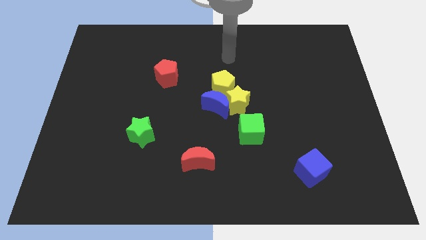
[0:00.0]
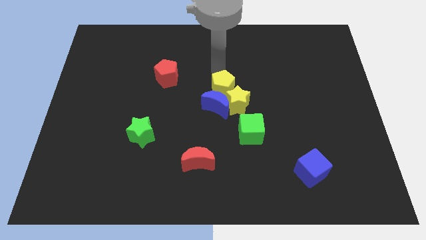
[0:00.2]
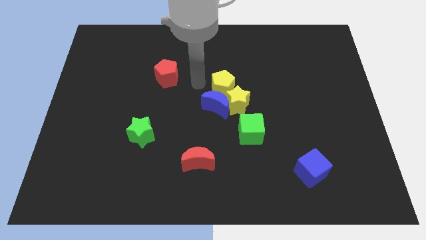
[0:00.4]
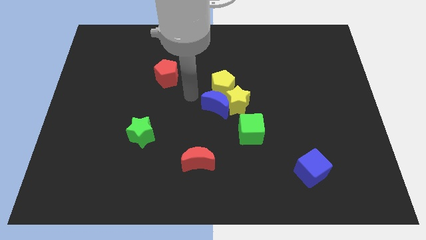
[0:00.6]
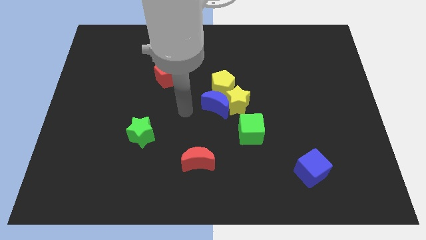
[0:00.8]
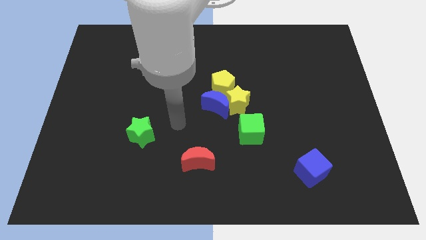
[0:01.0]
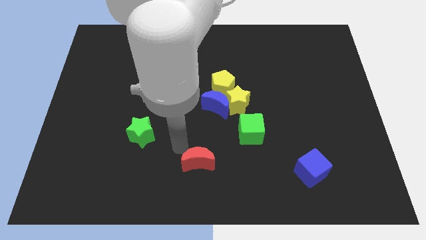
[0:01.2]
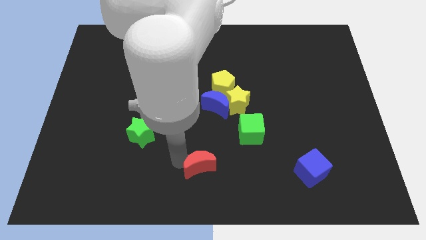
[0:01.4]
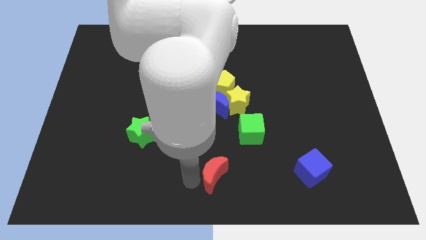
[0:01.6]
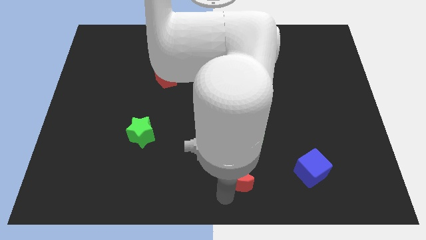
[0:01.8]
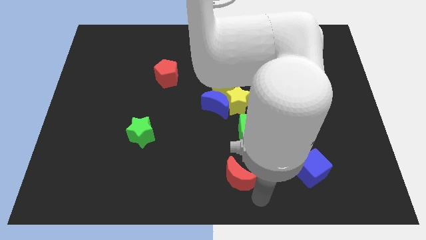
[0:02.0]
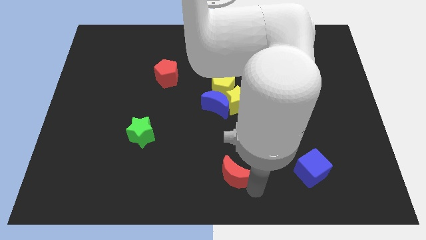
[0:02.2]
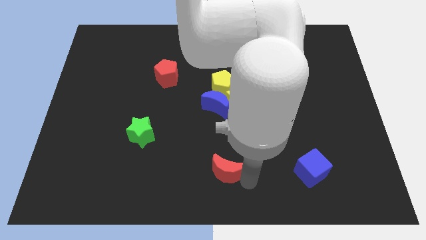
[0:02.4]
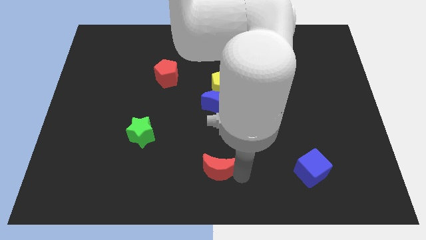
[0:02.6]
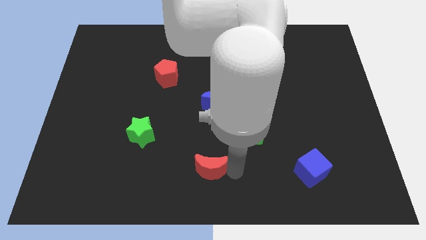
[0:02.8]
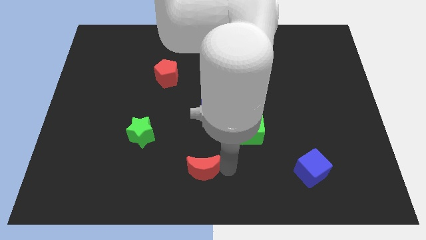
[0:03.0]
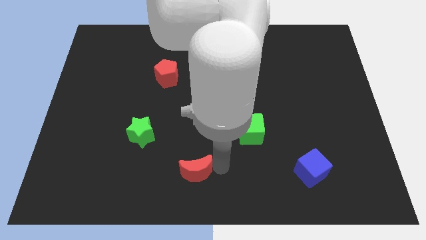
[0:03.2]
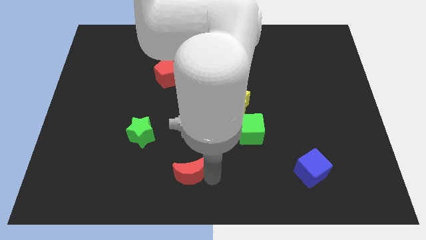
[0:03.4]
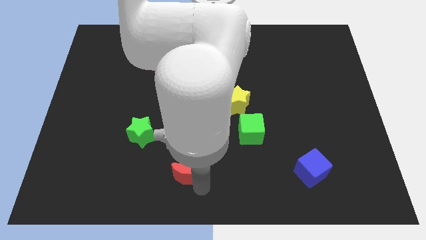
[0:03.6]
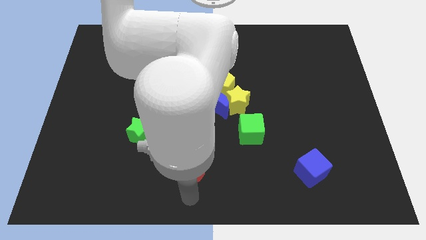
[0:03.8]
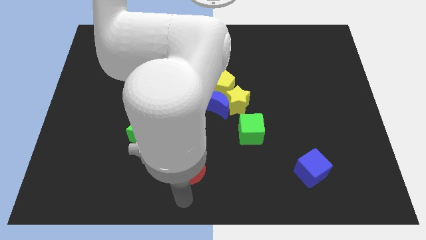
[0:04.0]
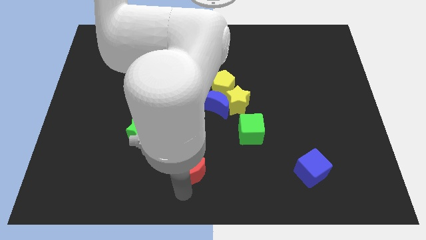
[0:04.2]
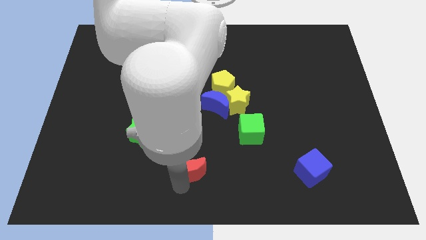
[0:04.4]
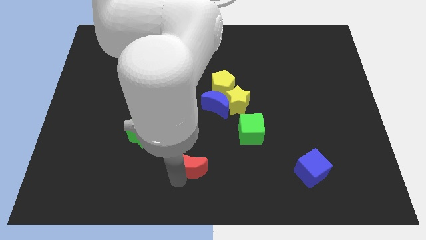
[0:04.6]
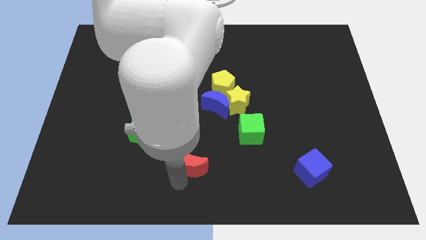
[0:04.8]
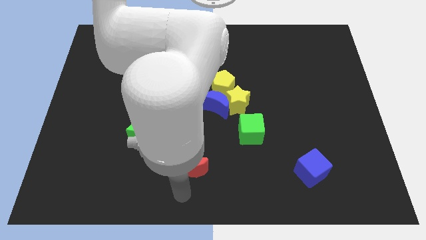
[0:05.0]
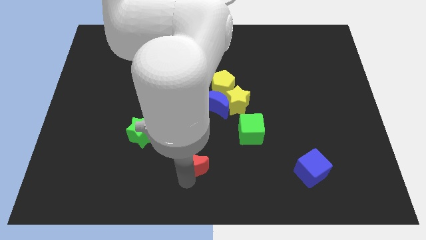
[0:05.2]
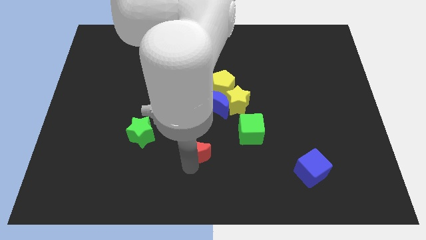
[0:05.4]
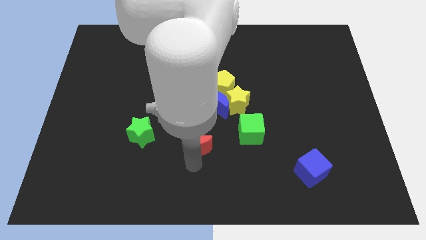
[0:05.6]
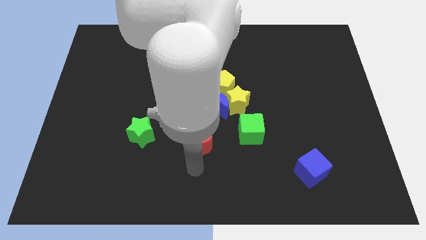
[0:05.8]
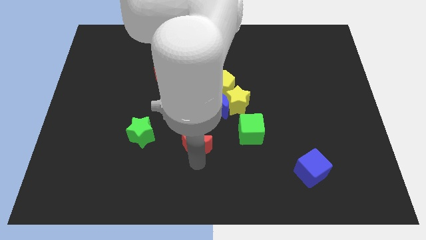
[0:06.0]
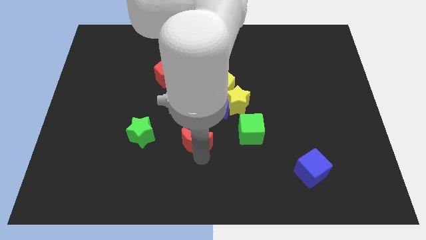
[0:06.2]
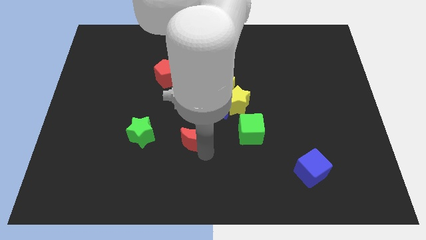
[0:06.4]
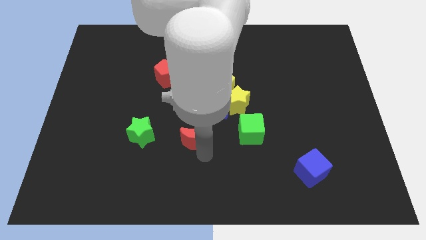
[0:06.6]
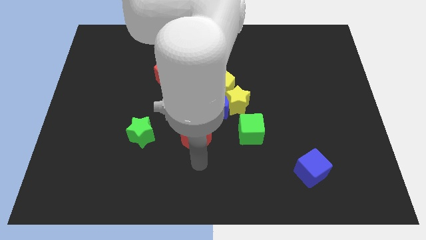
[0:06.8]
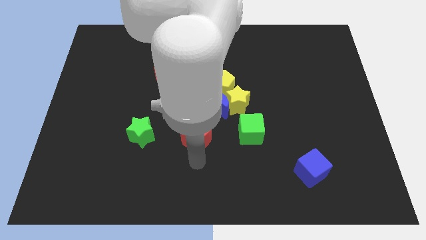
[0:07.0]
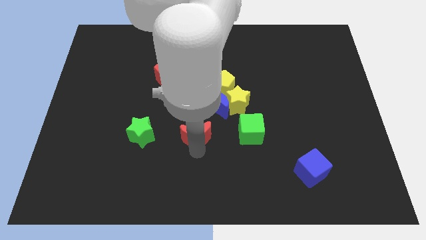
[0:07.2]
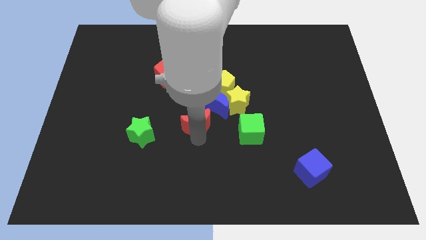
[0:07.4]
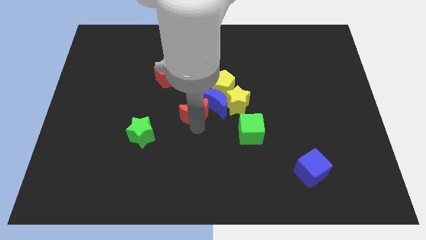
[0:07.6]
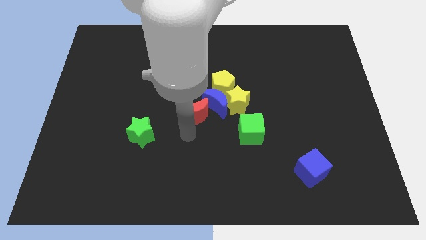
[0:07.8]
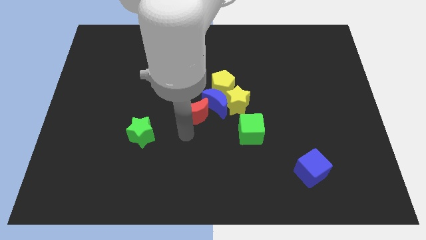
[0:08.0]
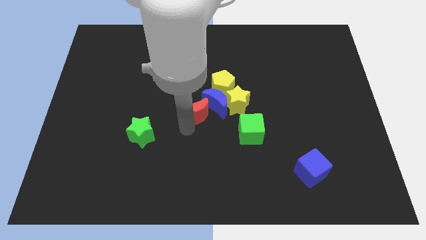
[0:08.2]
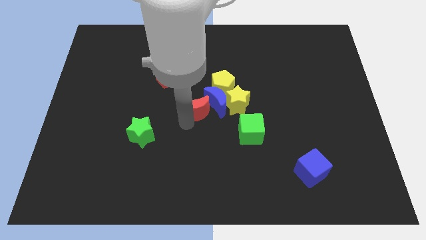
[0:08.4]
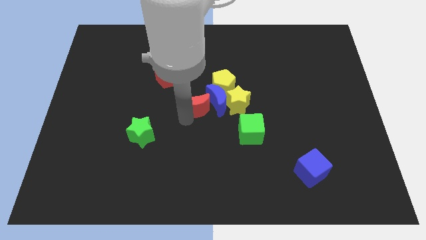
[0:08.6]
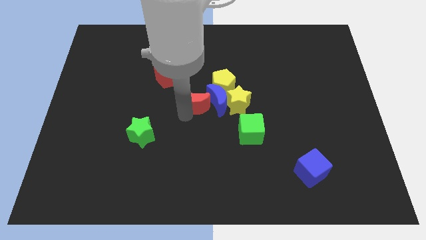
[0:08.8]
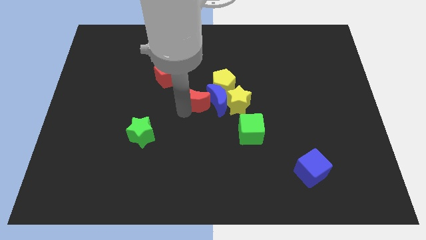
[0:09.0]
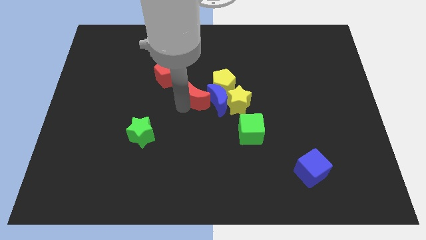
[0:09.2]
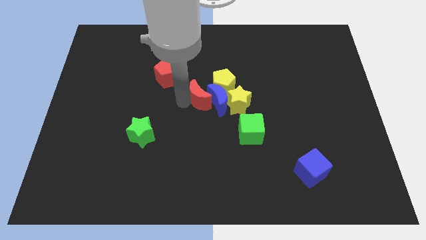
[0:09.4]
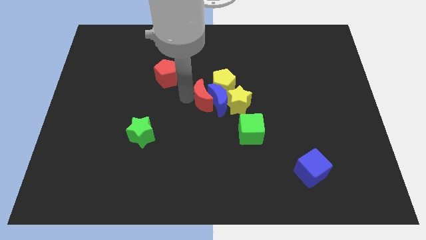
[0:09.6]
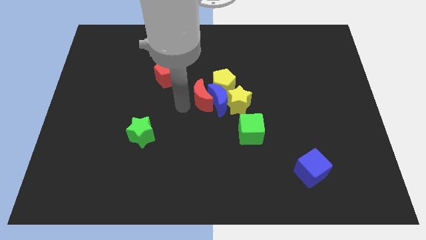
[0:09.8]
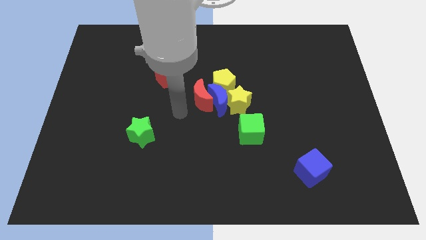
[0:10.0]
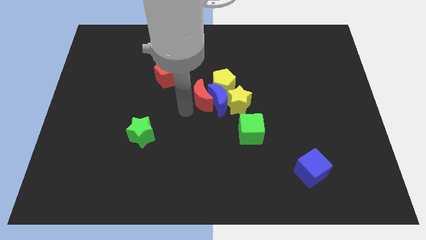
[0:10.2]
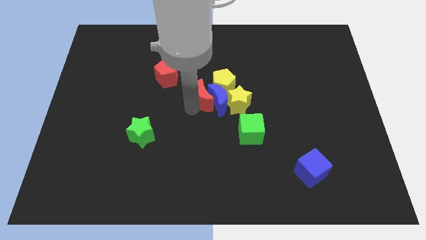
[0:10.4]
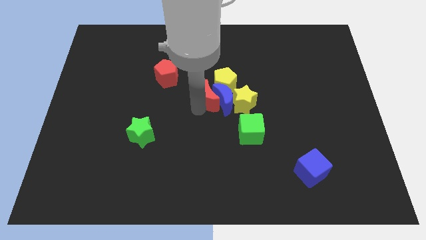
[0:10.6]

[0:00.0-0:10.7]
slide the red moon next to the yellow pentagon

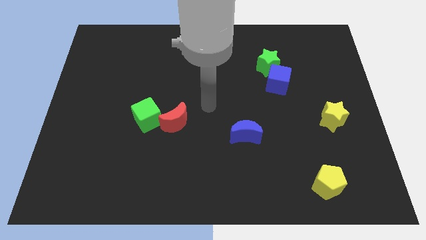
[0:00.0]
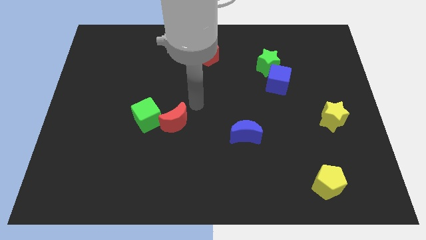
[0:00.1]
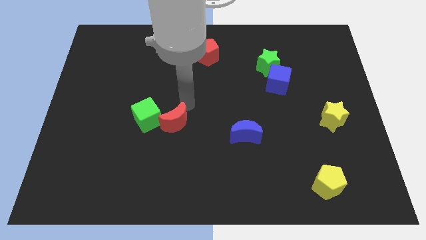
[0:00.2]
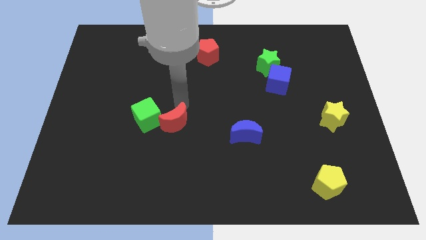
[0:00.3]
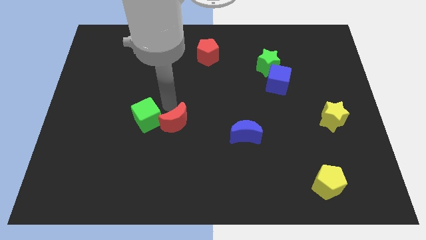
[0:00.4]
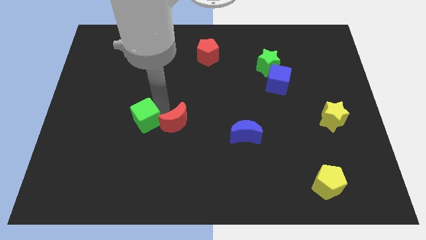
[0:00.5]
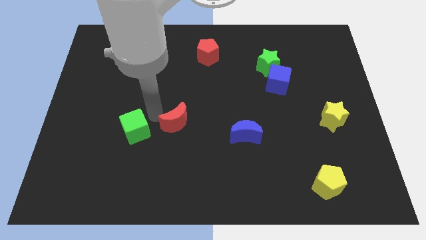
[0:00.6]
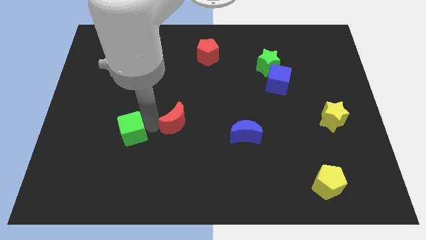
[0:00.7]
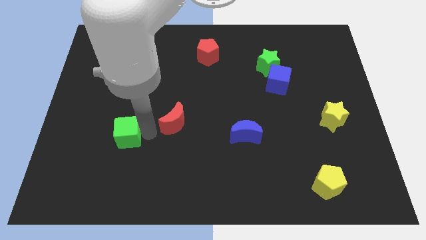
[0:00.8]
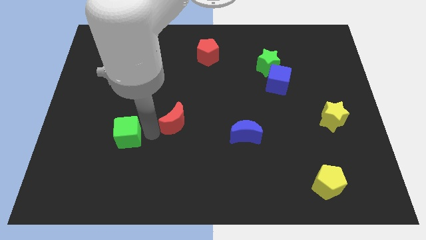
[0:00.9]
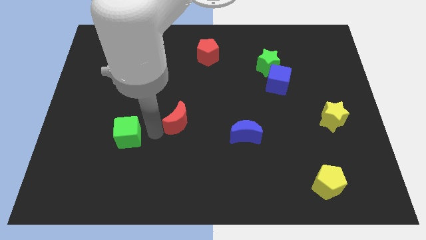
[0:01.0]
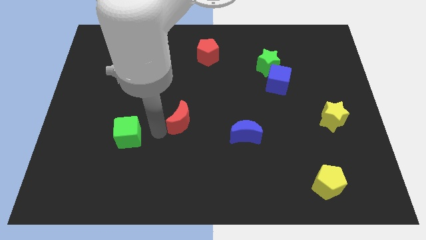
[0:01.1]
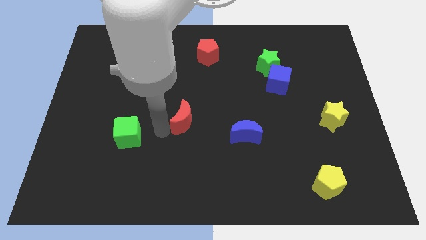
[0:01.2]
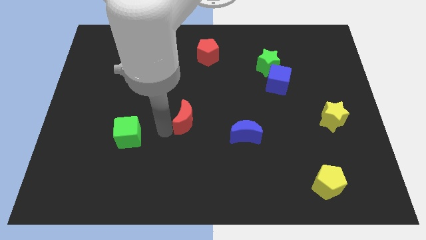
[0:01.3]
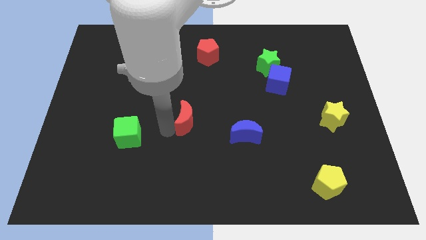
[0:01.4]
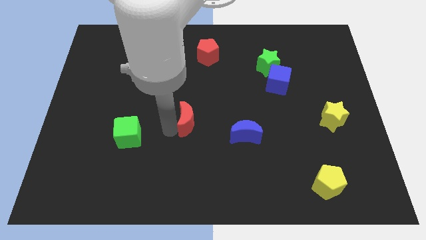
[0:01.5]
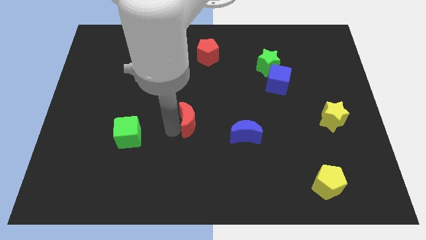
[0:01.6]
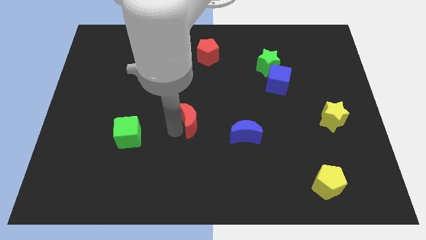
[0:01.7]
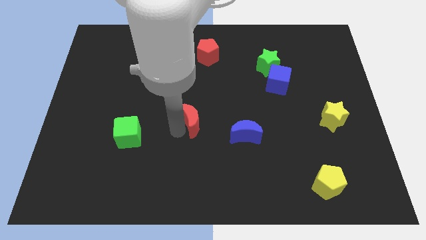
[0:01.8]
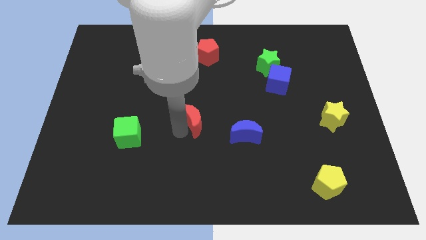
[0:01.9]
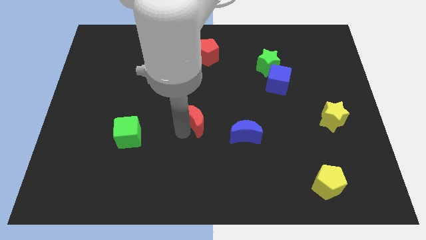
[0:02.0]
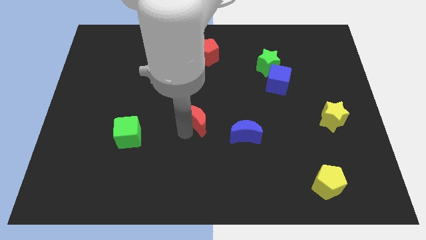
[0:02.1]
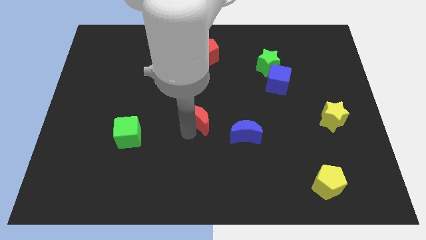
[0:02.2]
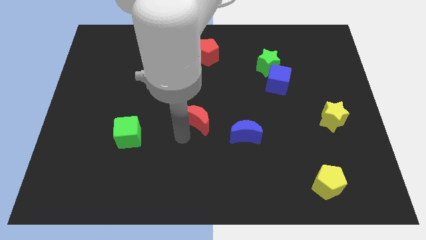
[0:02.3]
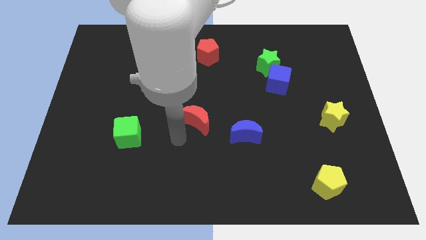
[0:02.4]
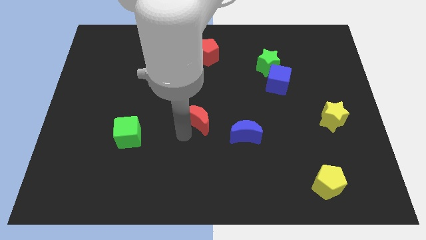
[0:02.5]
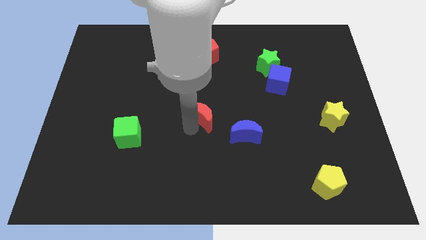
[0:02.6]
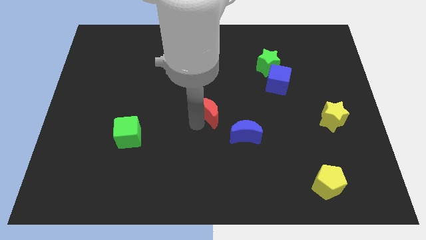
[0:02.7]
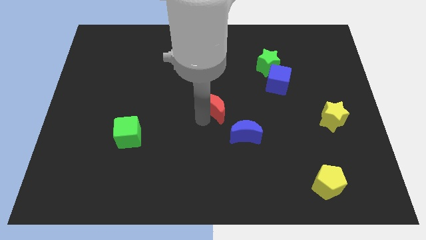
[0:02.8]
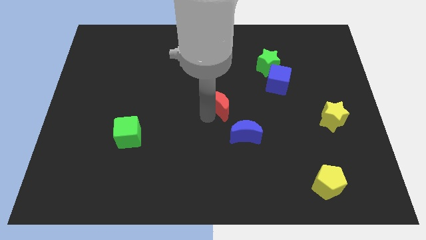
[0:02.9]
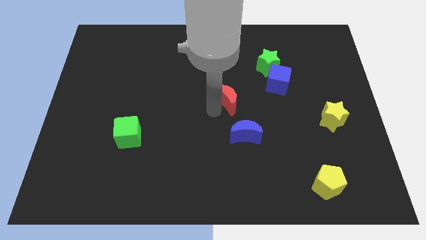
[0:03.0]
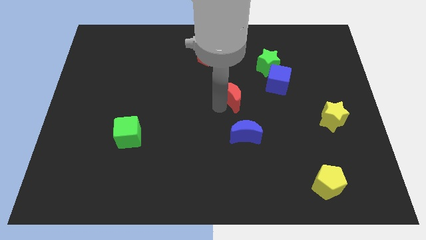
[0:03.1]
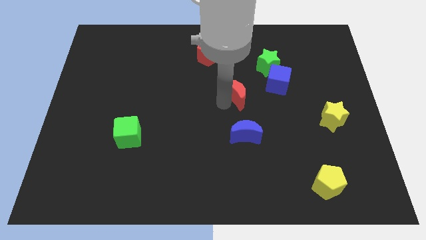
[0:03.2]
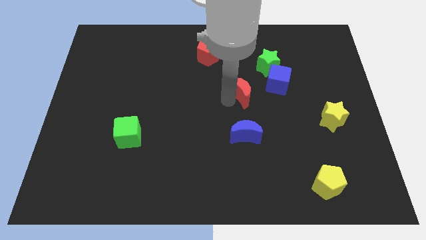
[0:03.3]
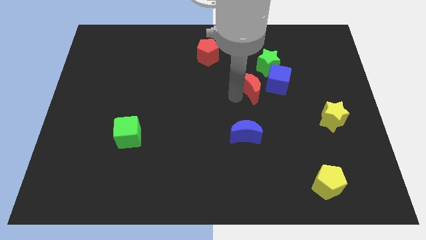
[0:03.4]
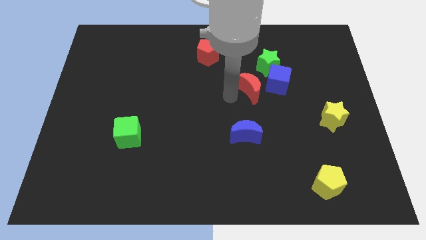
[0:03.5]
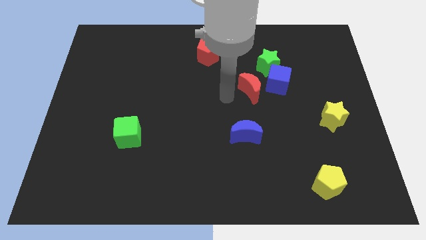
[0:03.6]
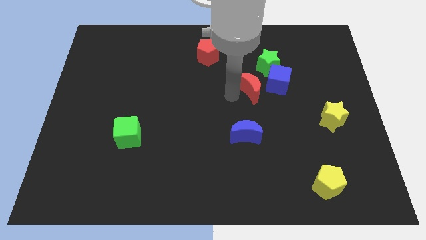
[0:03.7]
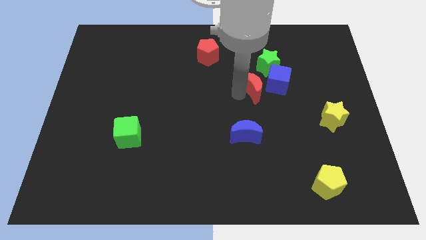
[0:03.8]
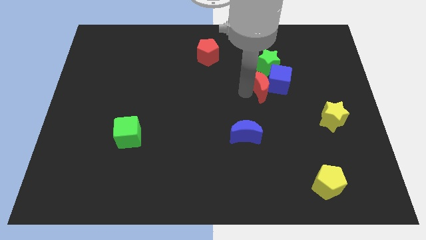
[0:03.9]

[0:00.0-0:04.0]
slide the red moon close to the blue cube
